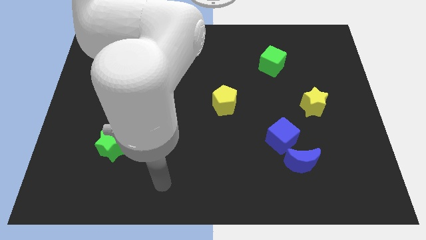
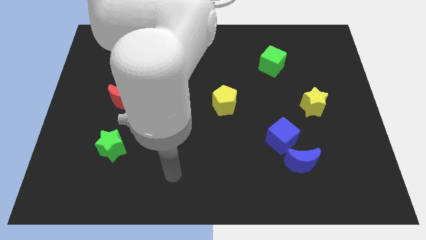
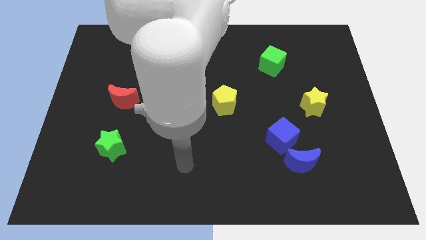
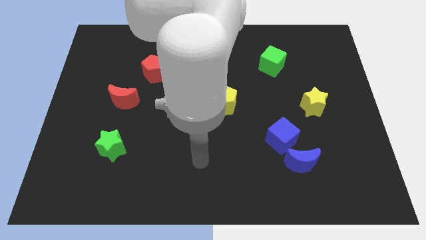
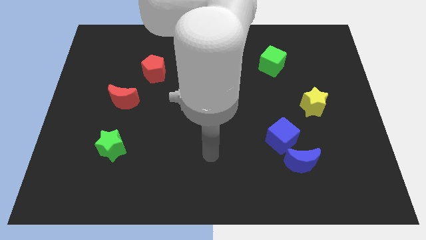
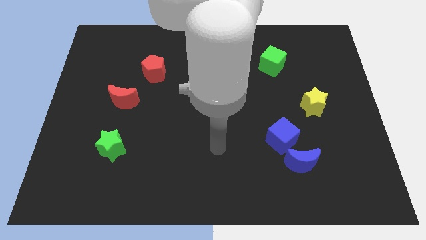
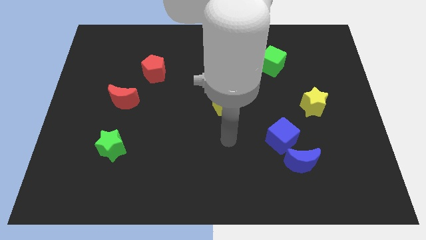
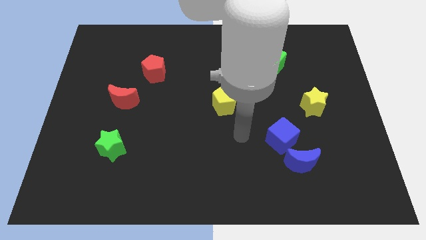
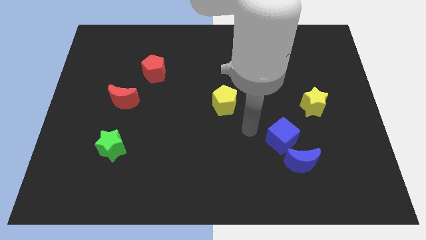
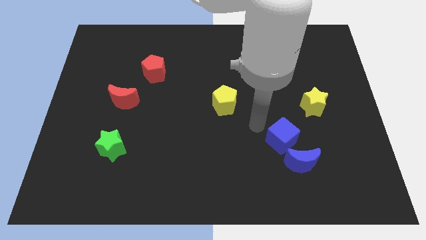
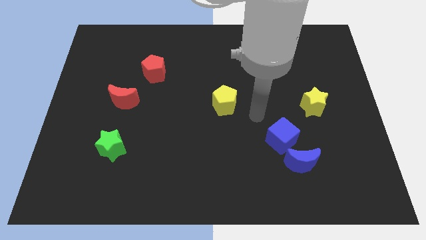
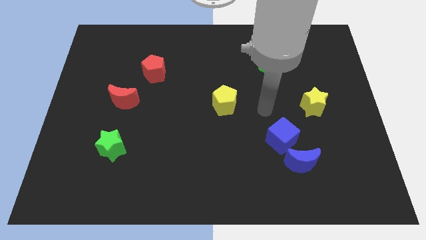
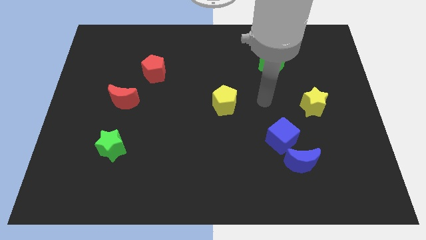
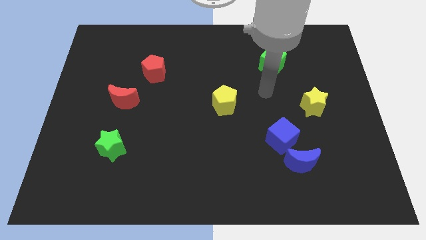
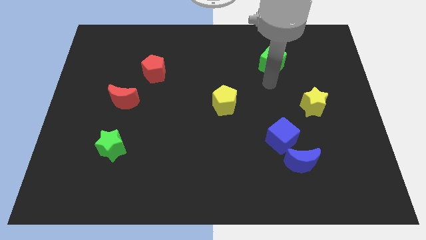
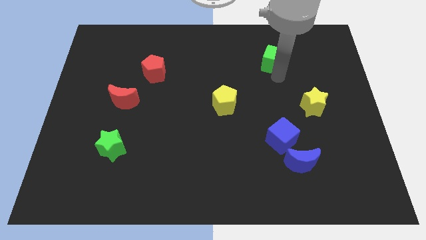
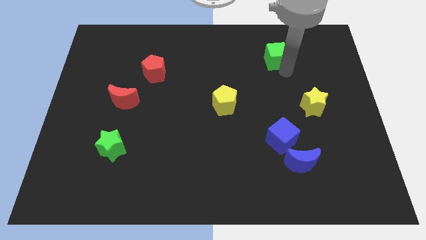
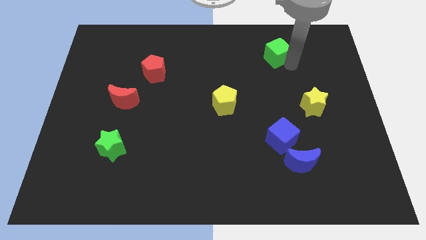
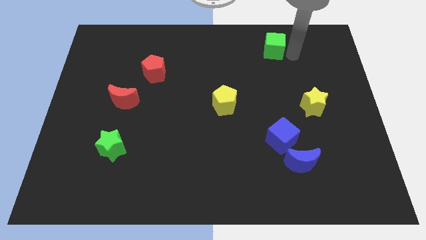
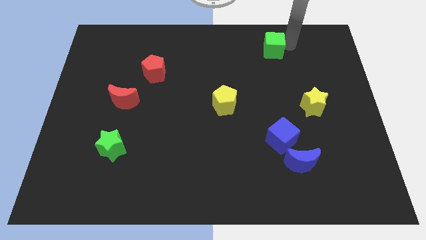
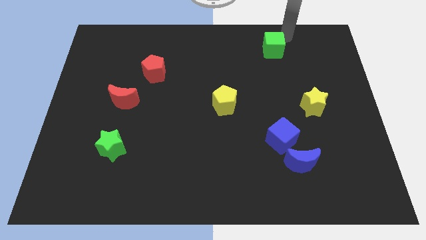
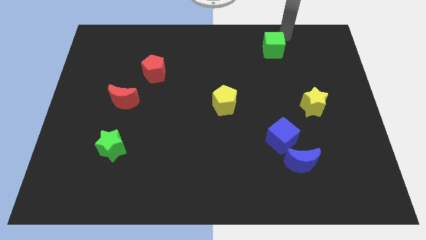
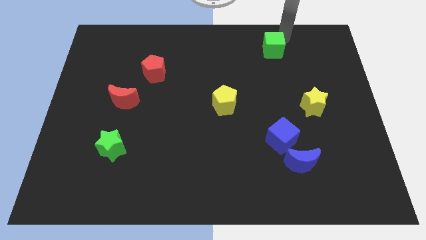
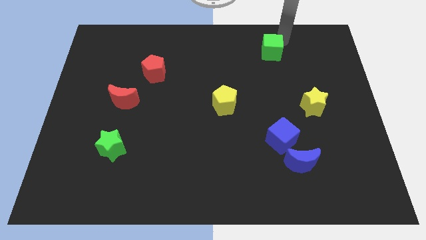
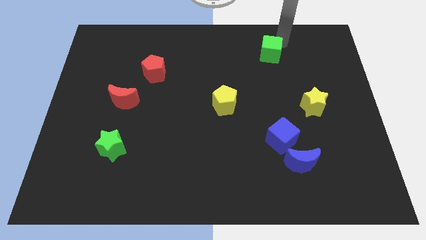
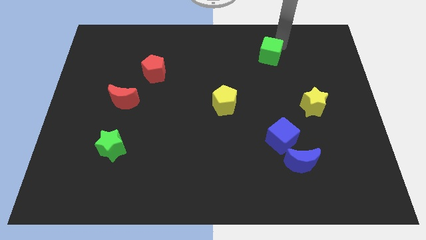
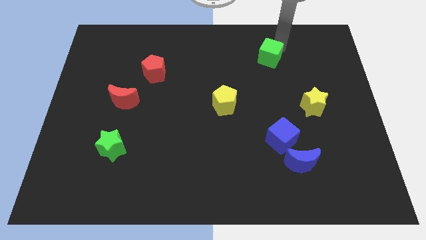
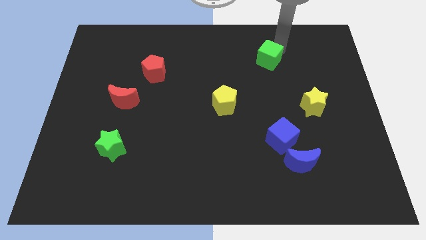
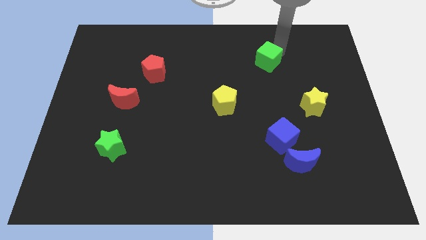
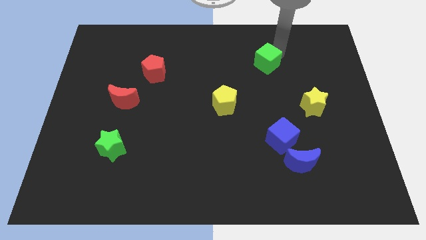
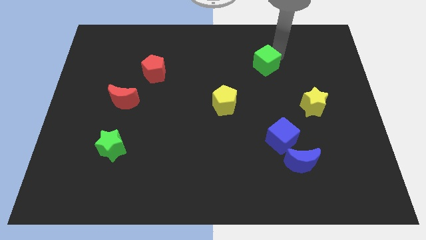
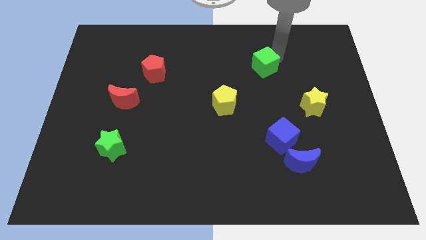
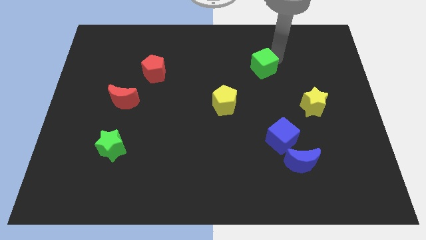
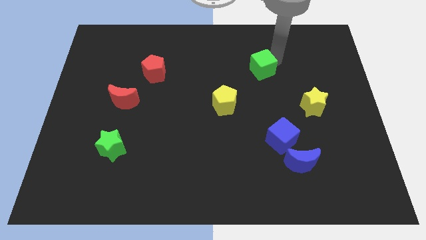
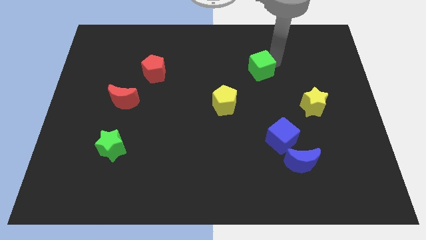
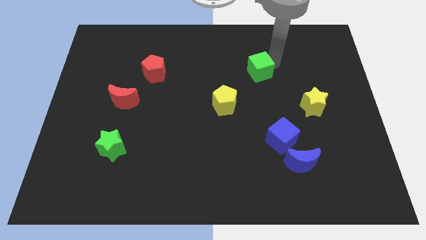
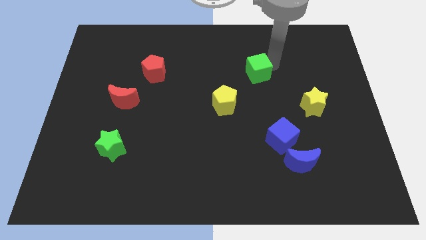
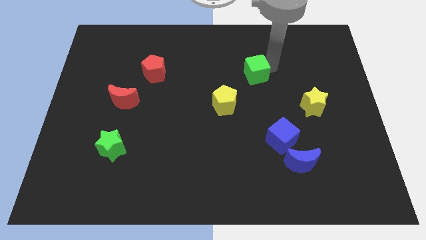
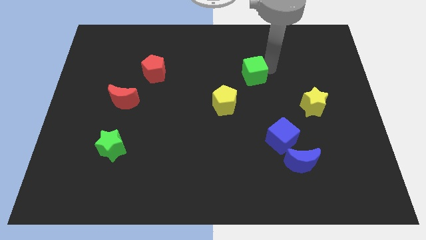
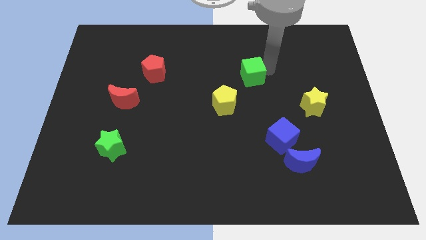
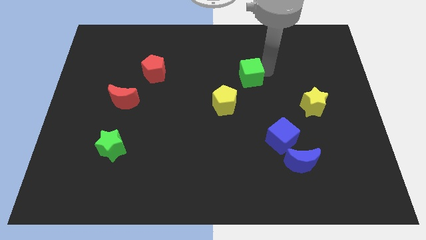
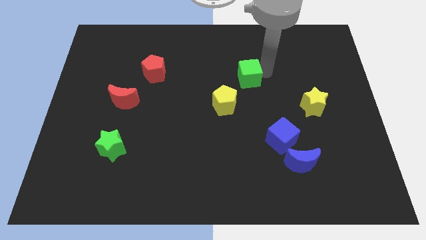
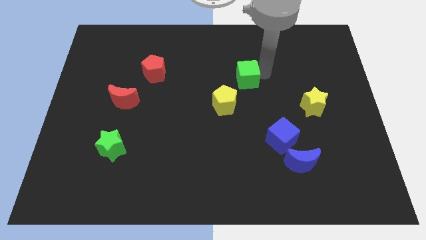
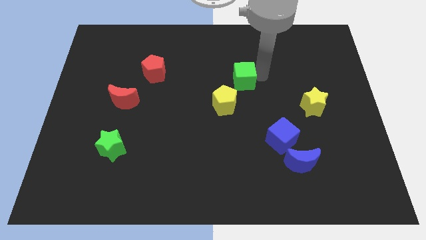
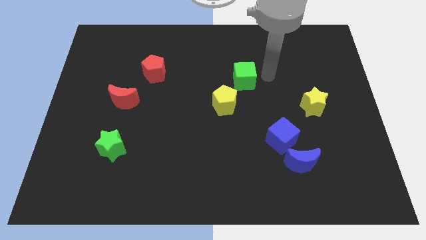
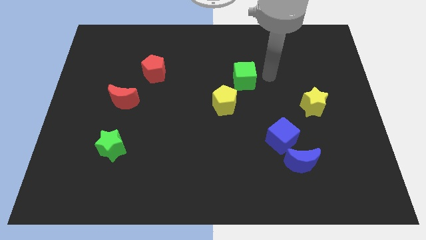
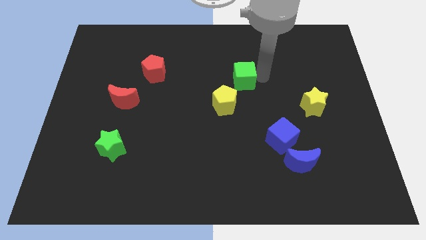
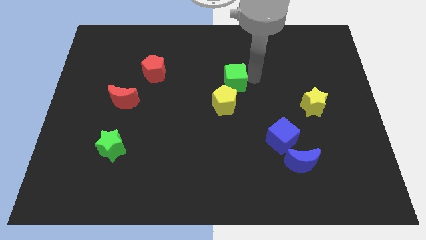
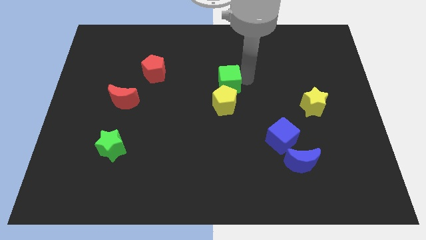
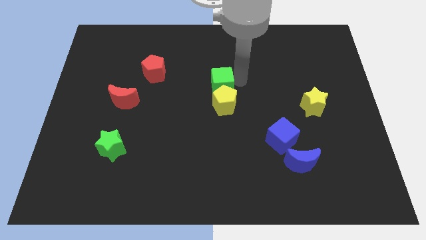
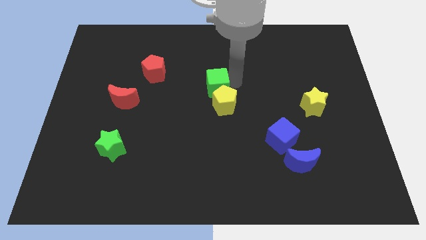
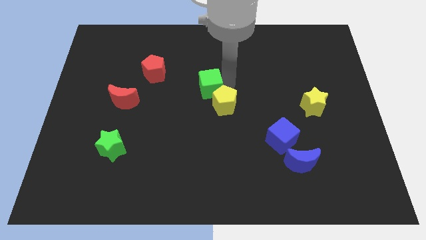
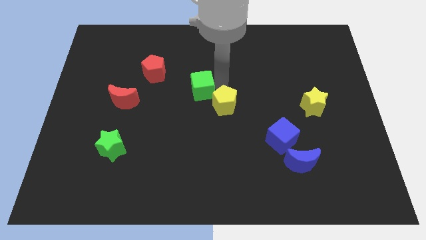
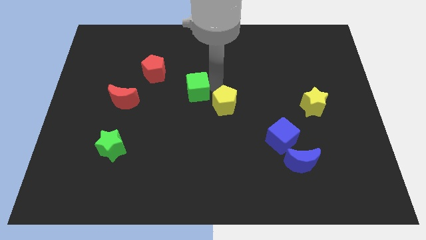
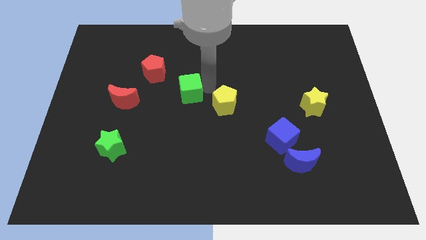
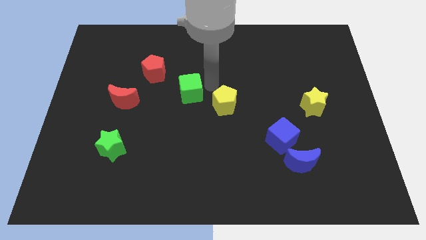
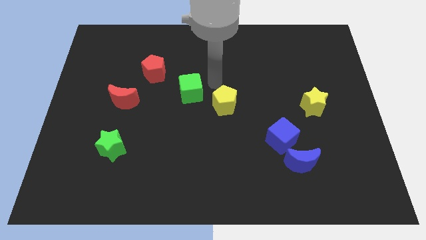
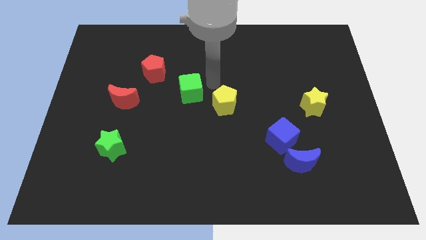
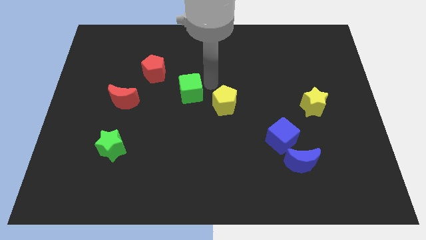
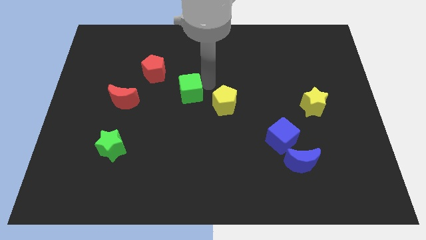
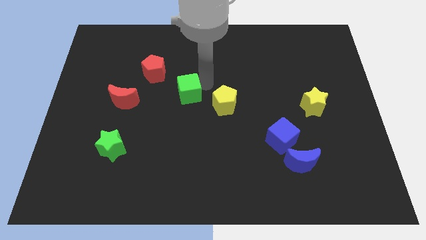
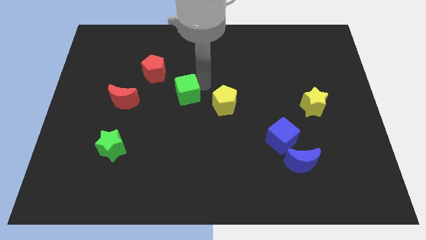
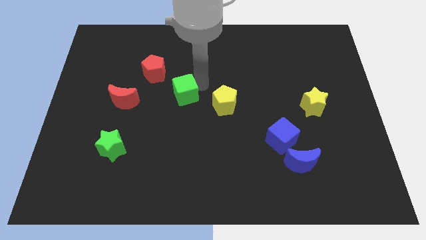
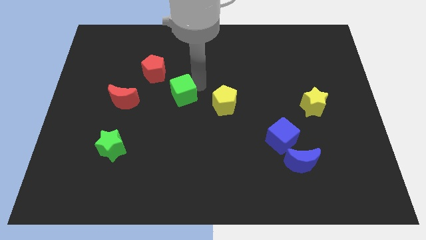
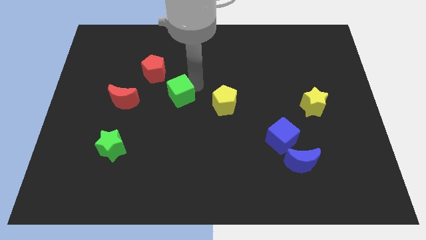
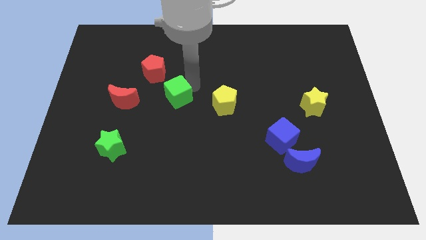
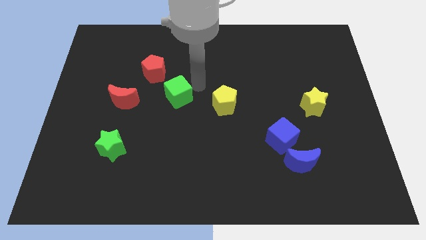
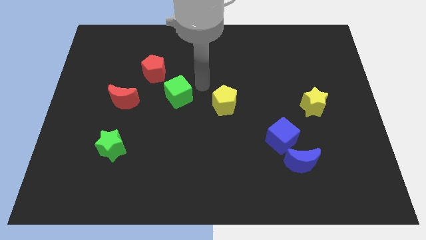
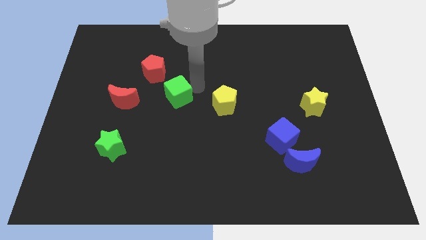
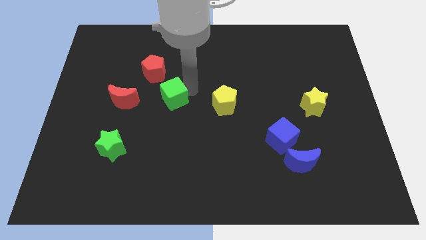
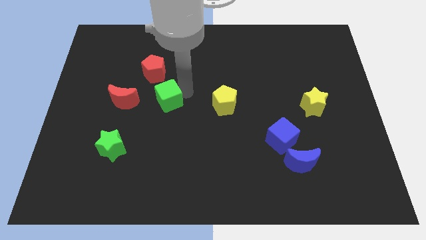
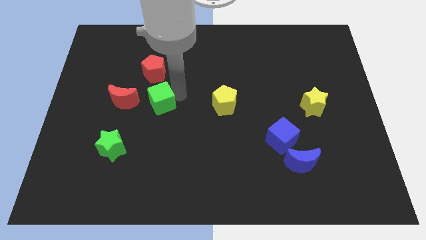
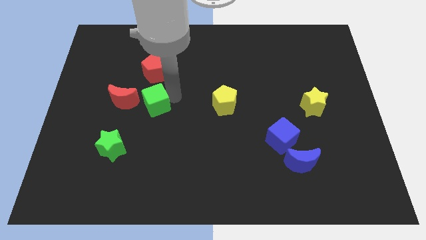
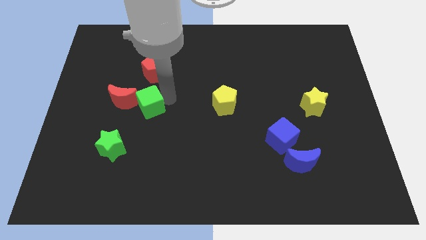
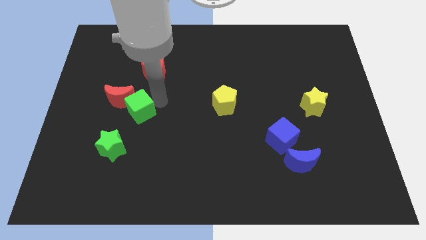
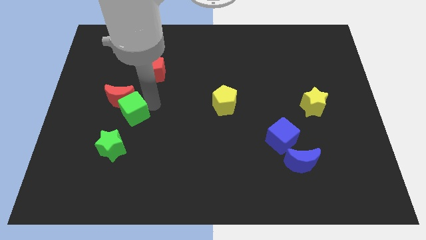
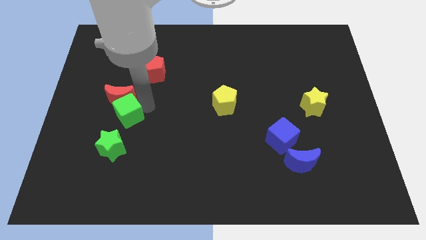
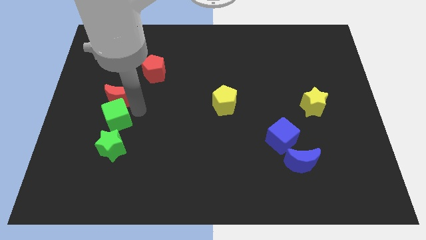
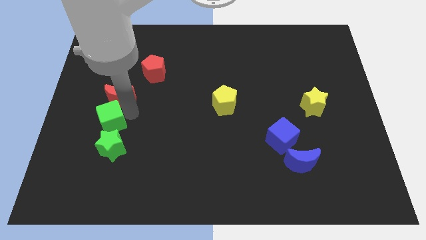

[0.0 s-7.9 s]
slide the green cube to the top left of the green star
